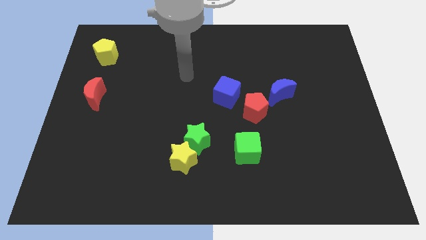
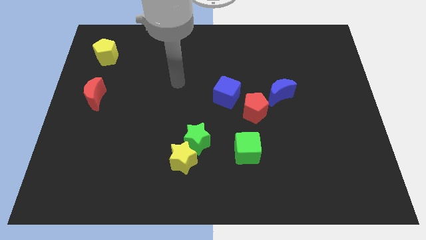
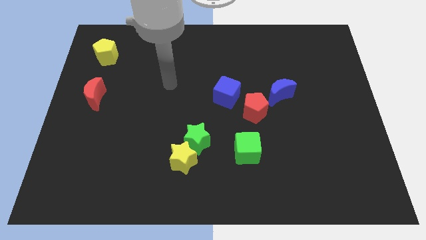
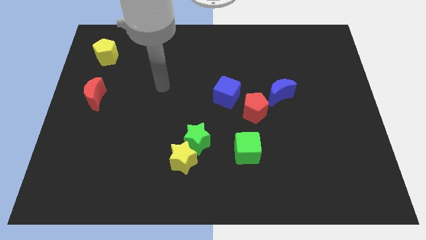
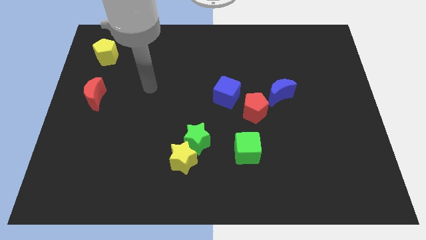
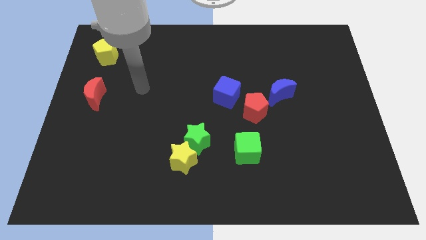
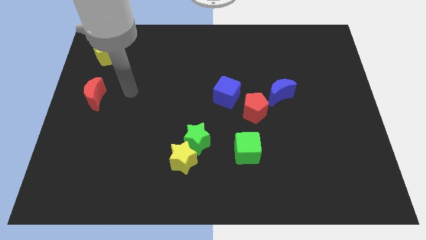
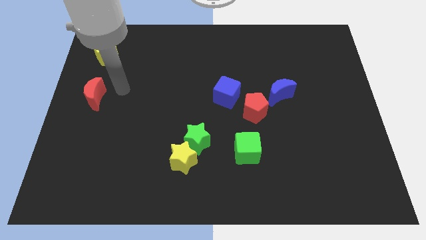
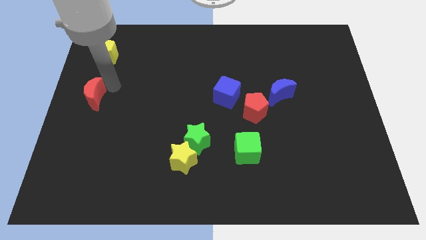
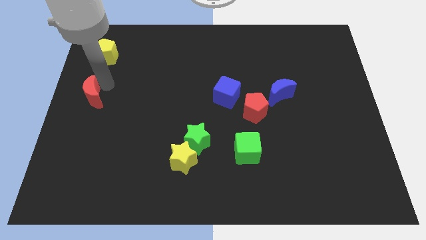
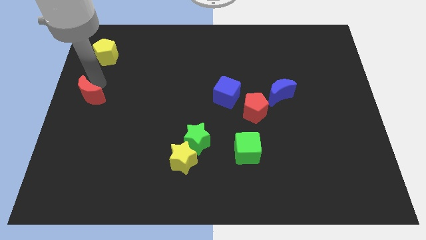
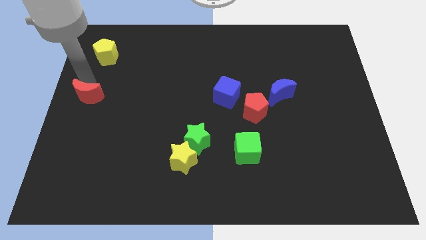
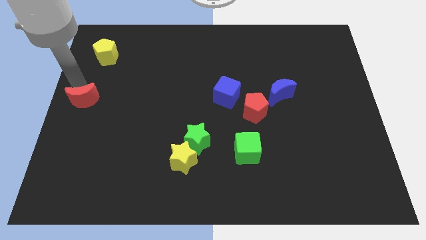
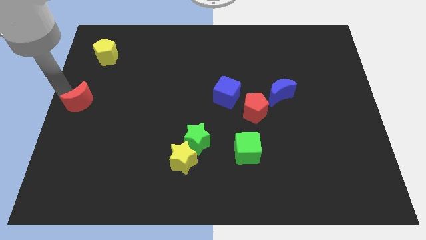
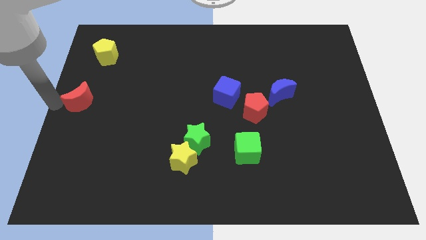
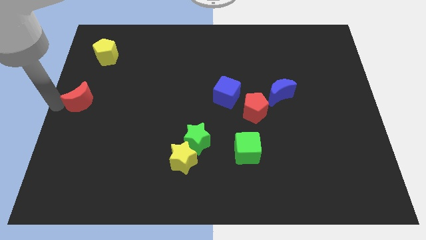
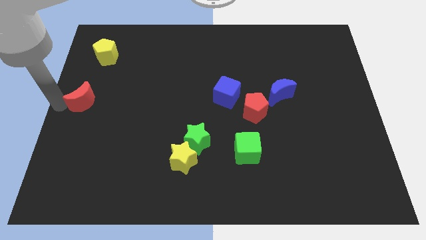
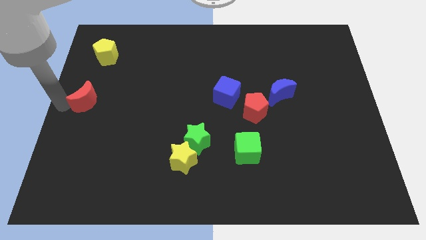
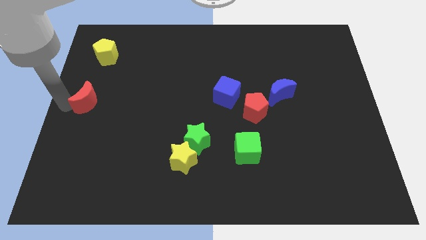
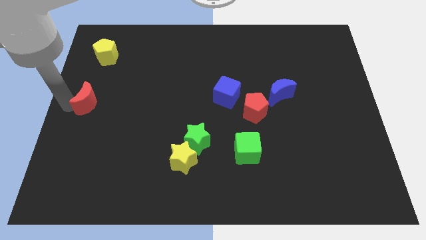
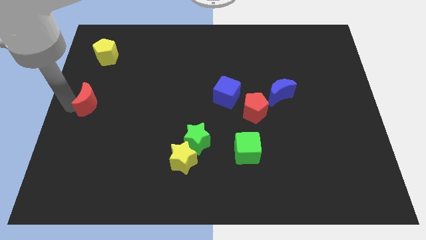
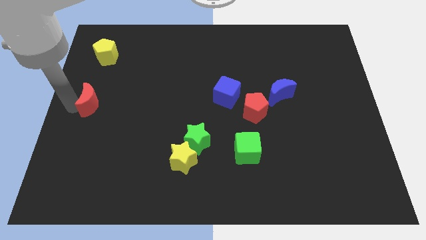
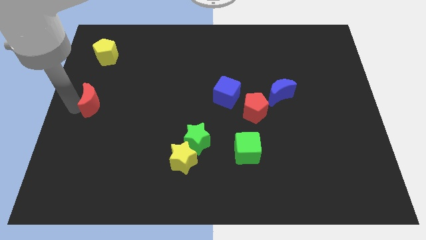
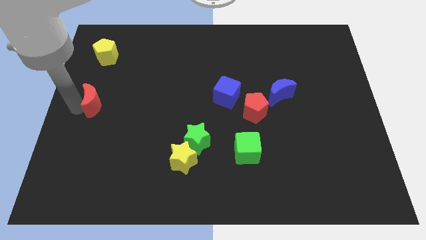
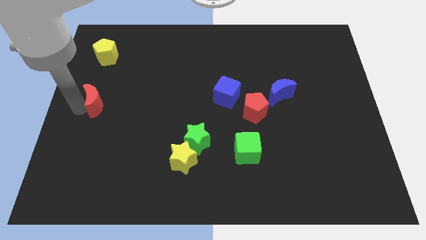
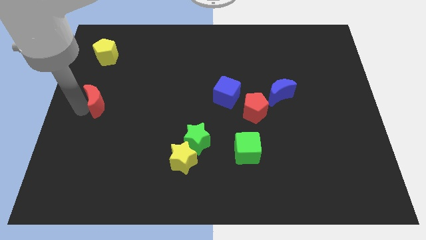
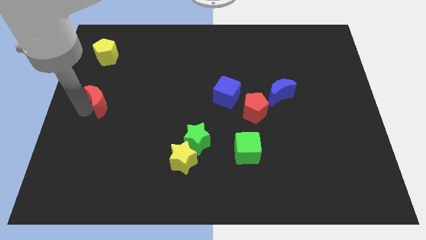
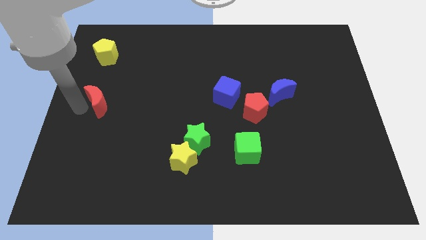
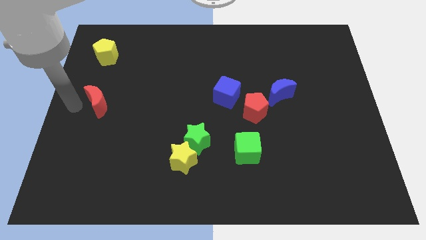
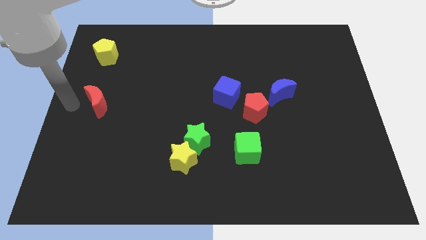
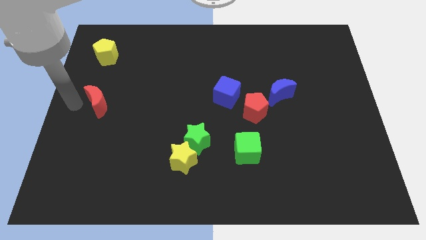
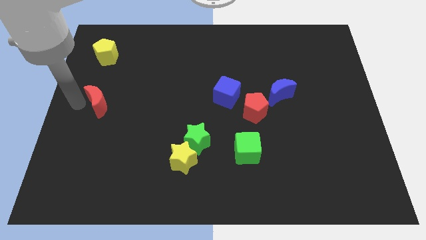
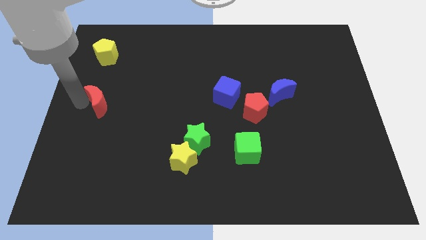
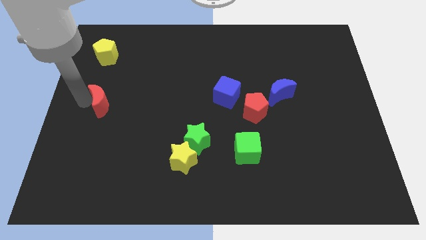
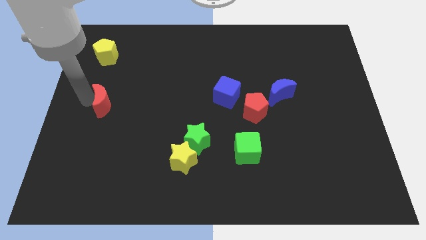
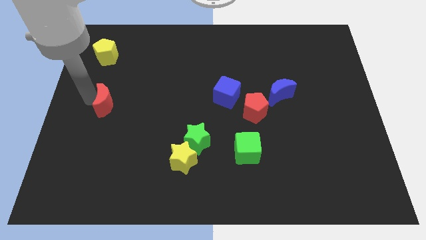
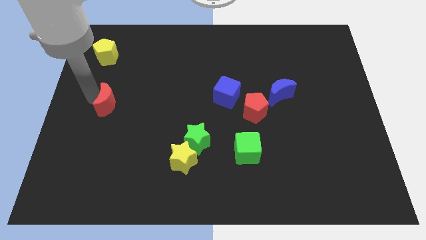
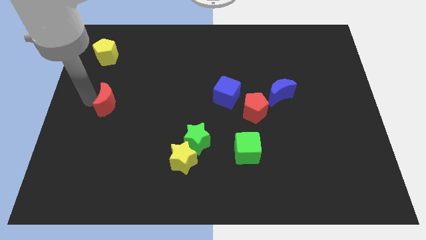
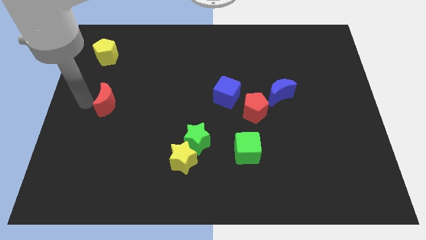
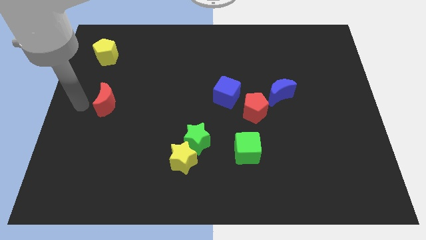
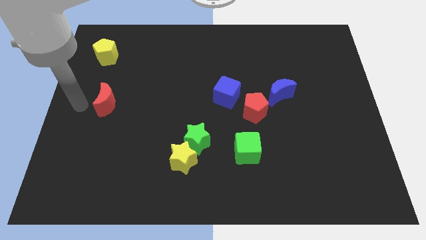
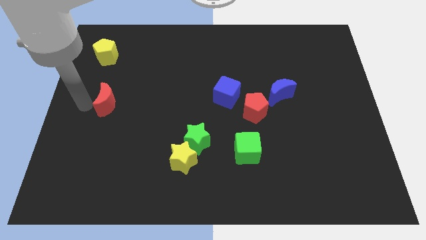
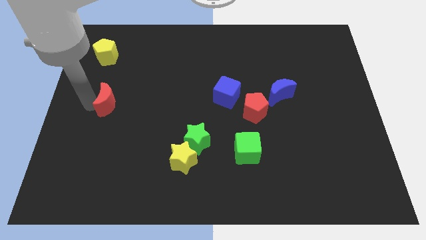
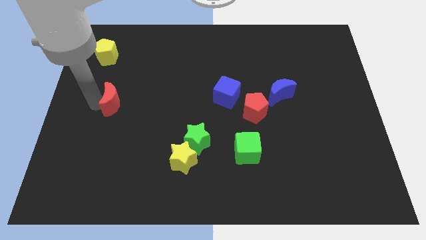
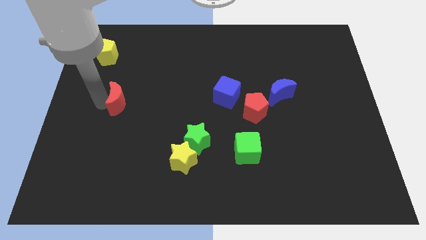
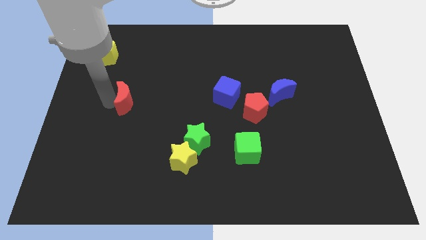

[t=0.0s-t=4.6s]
push the red moon slightly right

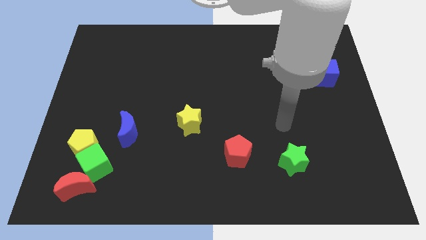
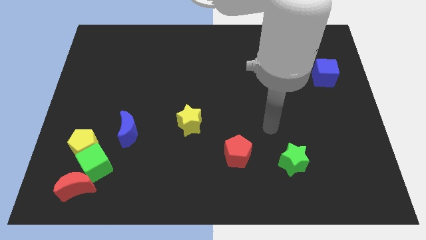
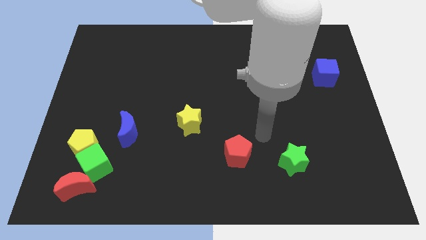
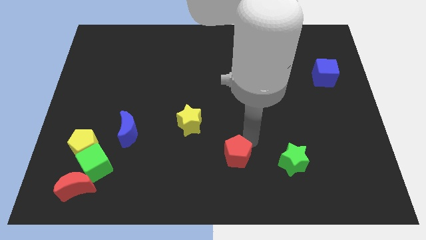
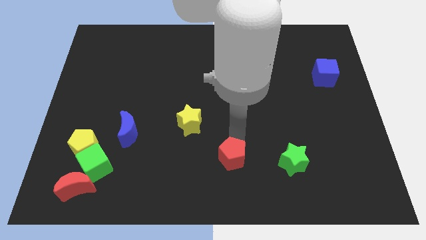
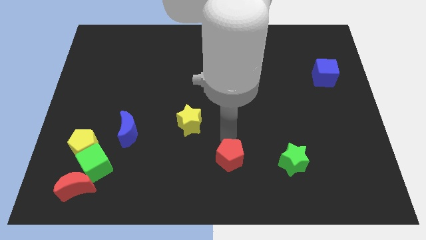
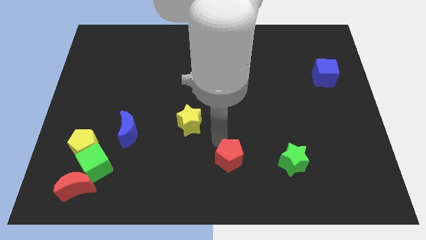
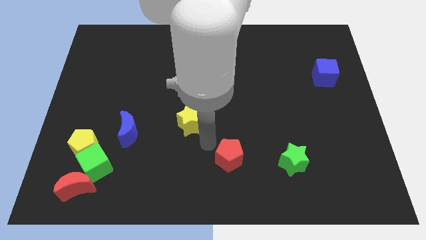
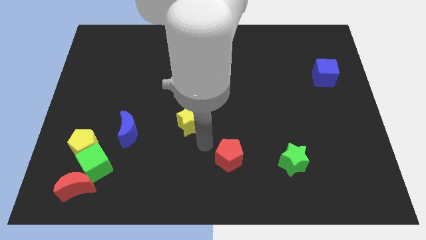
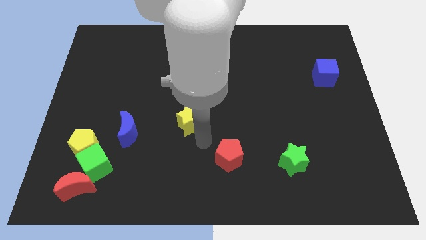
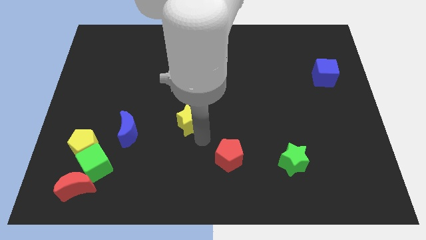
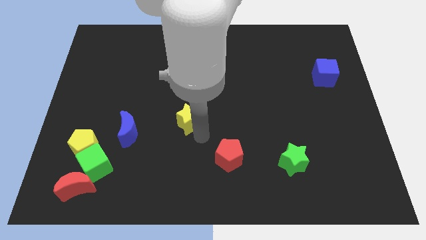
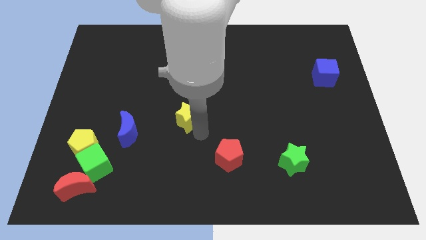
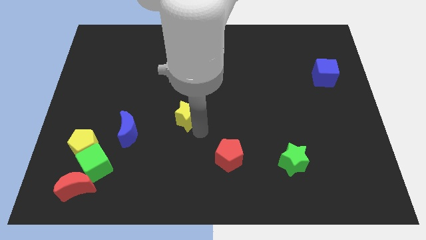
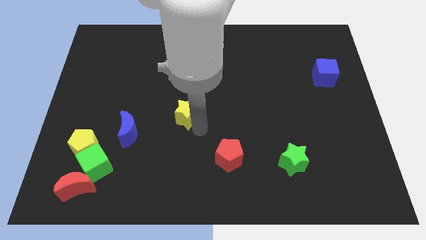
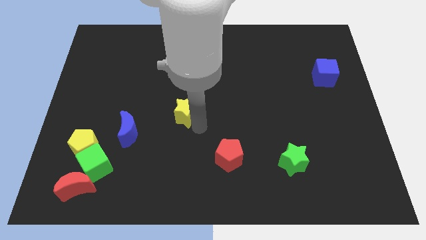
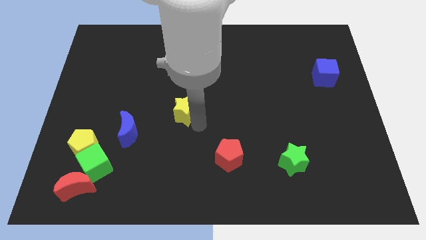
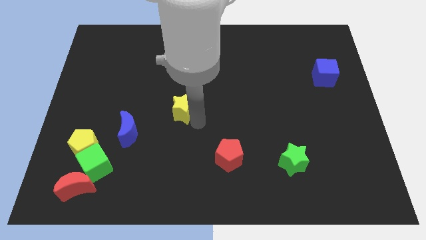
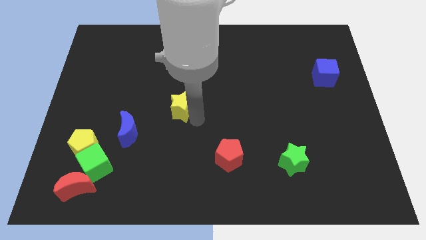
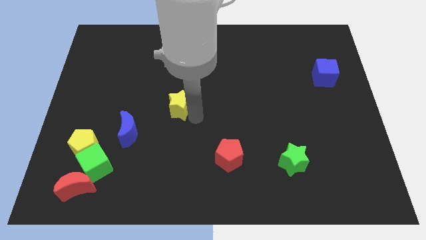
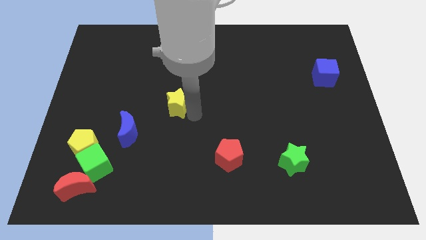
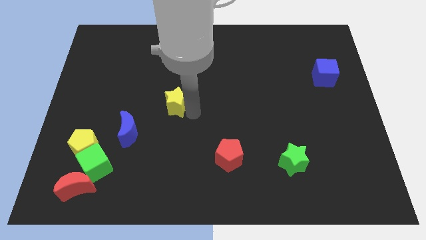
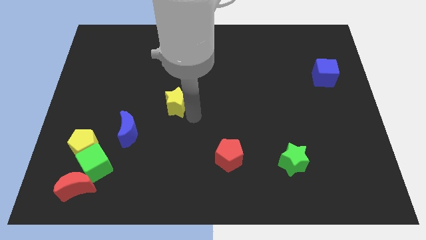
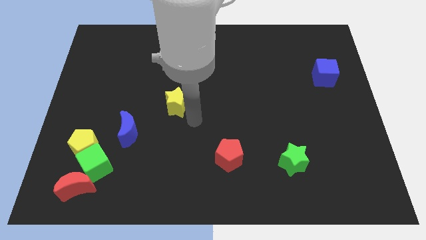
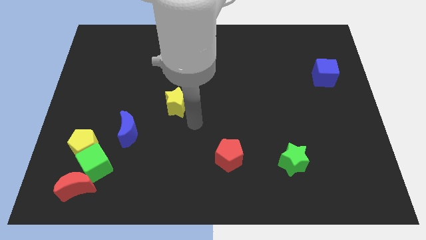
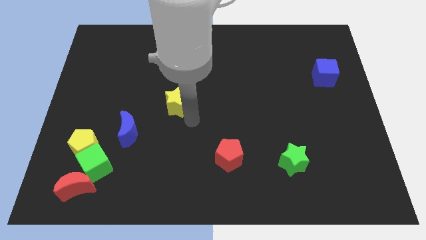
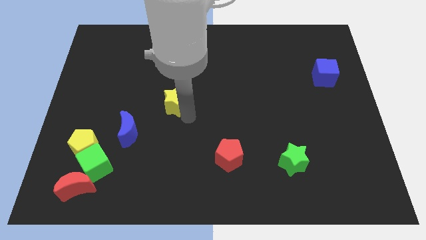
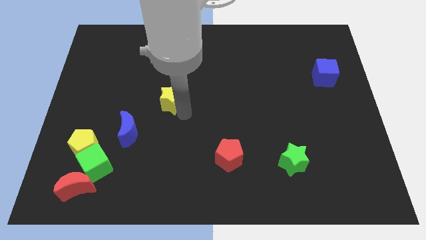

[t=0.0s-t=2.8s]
push the yellow star upwards and then left somewhat

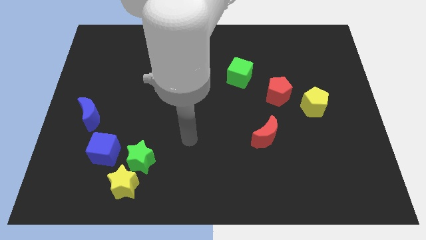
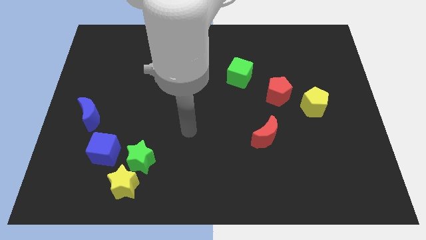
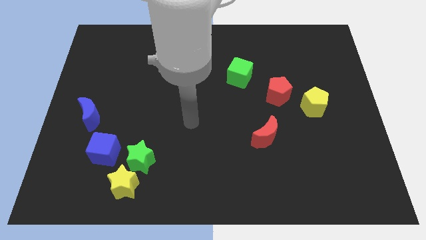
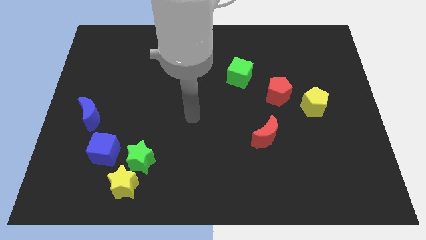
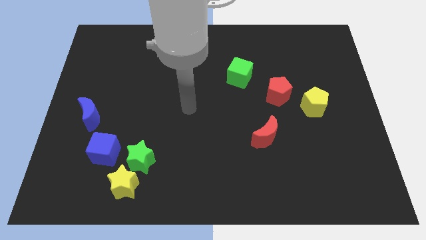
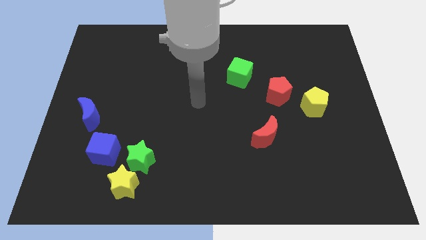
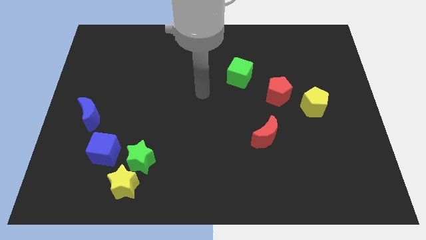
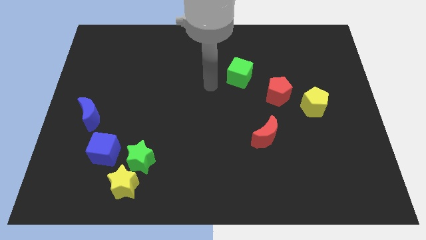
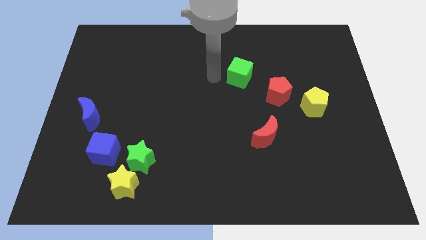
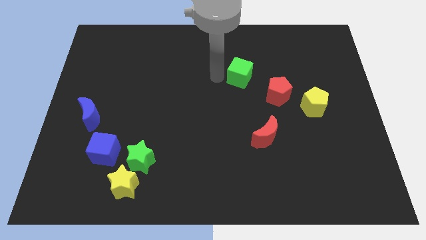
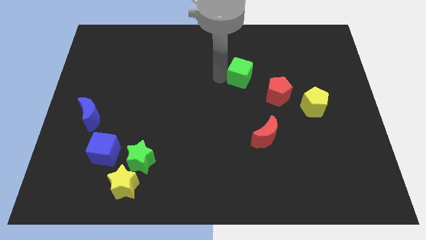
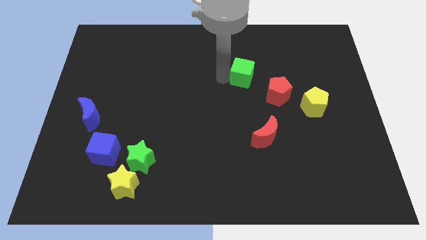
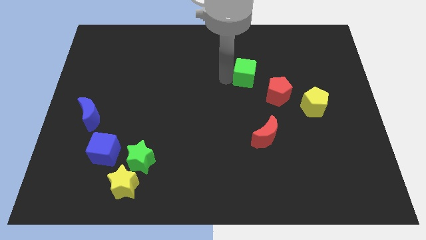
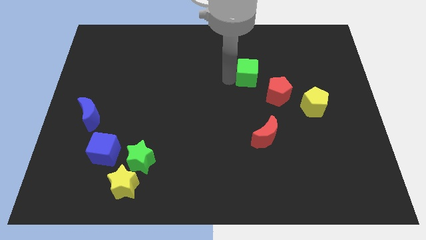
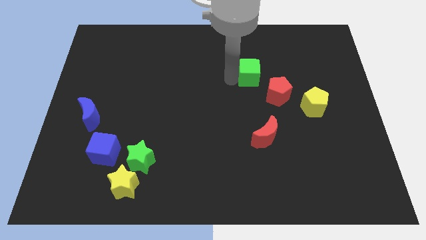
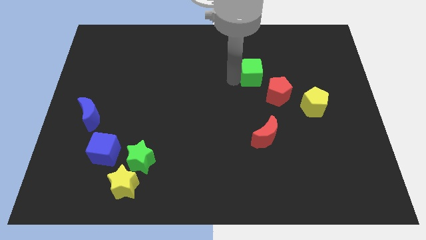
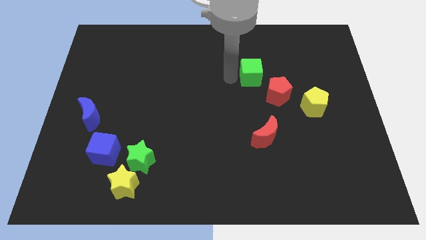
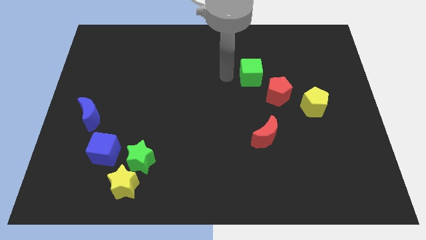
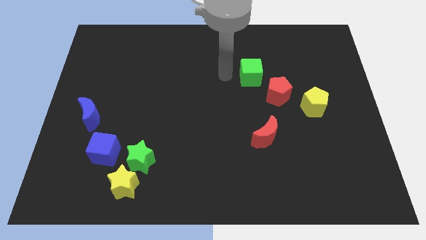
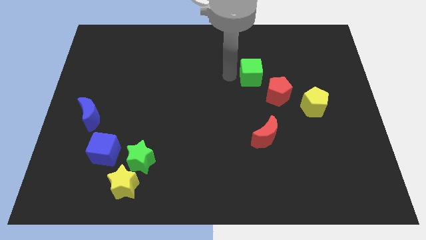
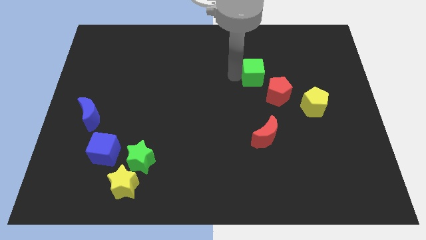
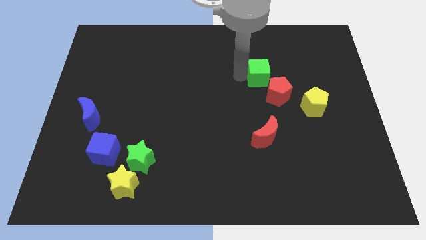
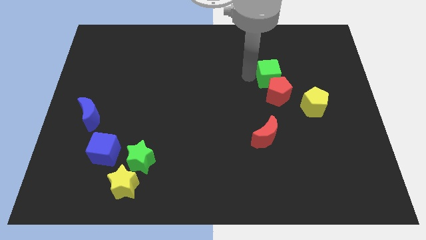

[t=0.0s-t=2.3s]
move the green cube to the right a bit
